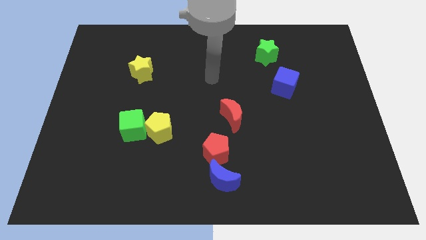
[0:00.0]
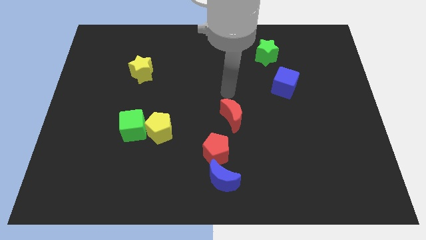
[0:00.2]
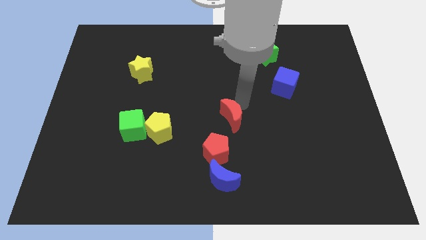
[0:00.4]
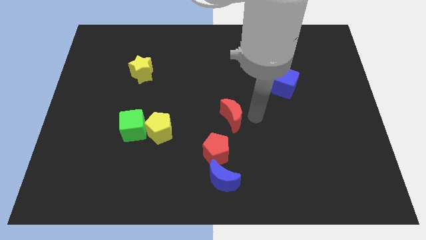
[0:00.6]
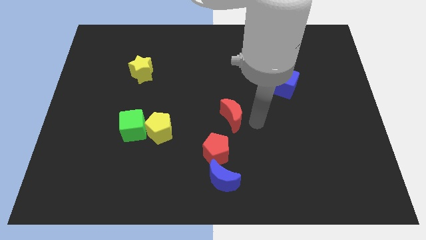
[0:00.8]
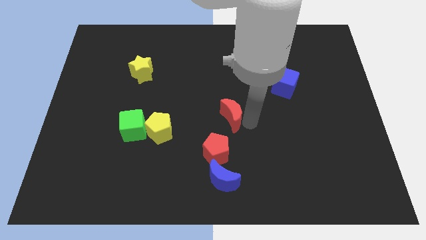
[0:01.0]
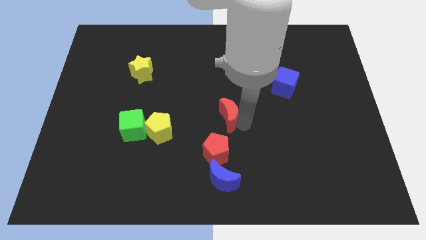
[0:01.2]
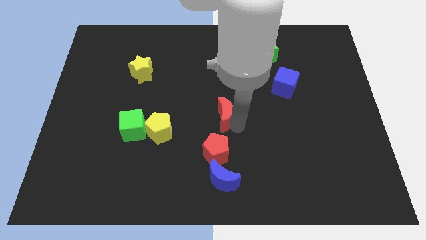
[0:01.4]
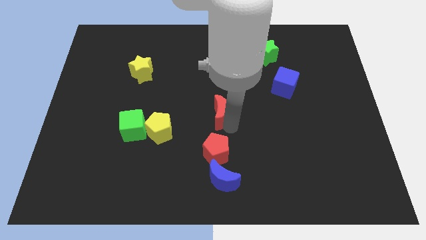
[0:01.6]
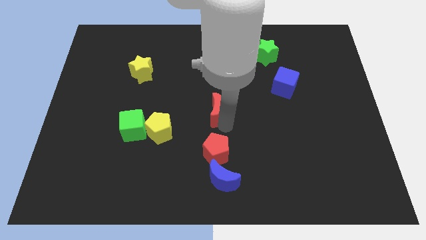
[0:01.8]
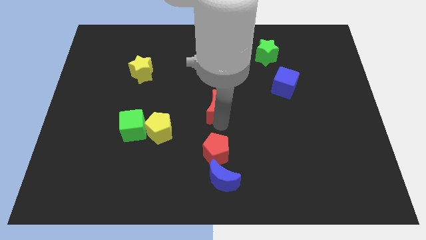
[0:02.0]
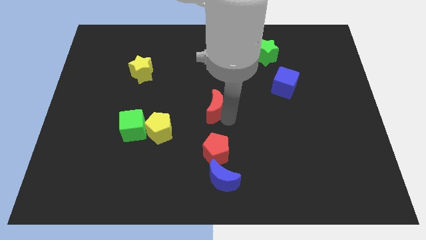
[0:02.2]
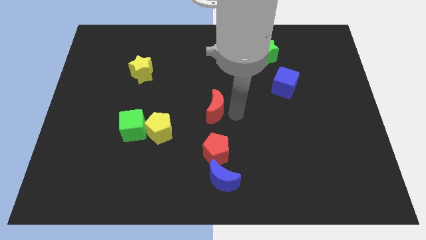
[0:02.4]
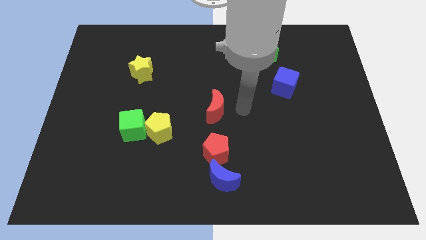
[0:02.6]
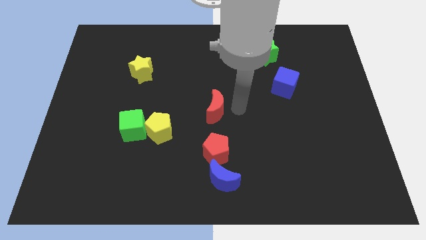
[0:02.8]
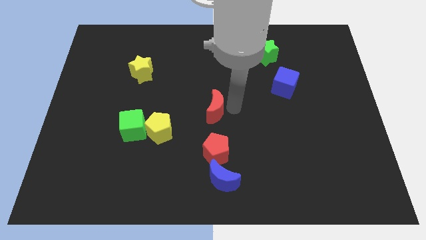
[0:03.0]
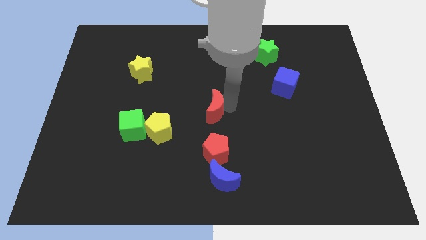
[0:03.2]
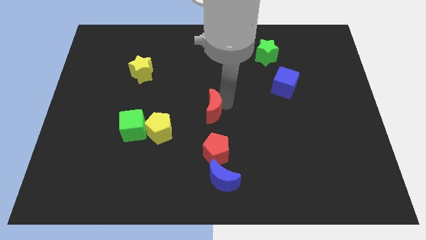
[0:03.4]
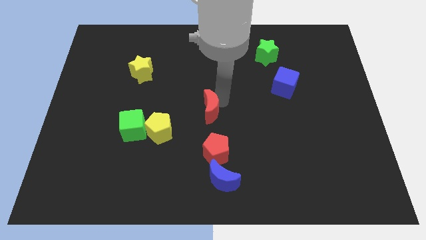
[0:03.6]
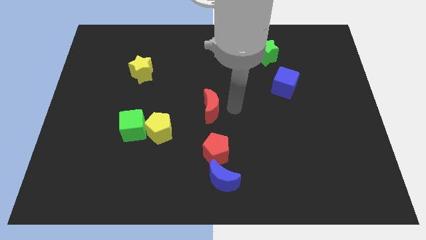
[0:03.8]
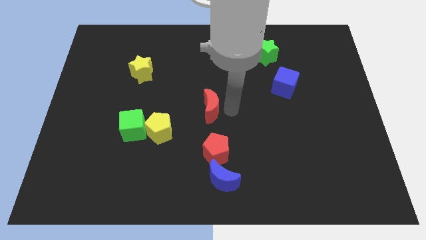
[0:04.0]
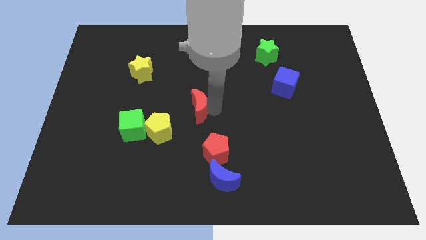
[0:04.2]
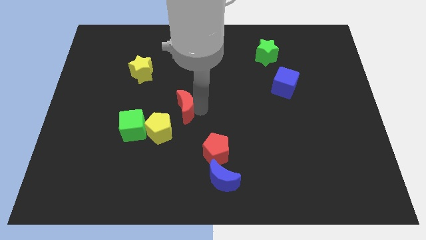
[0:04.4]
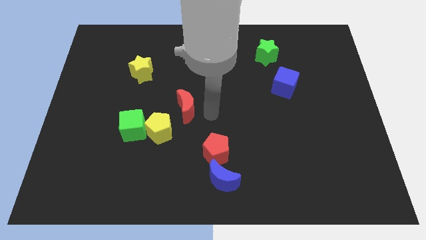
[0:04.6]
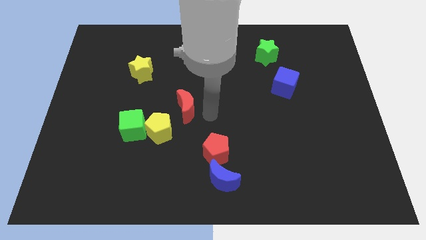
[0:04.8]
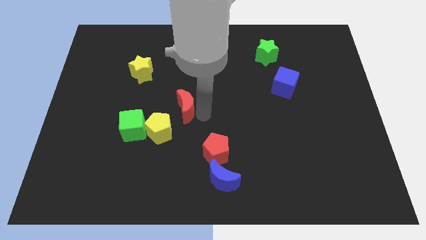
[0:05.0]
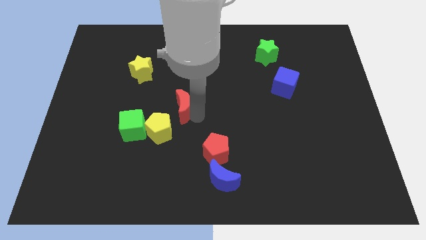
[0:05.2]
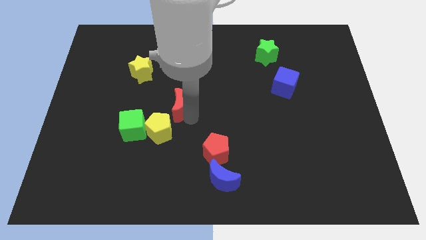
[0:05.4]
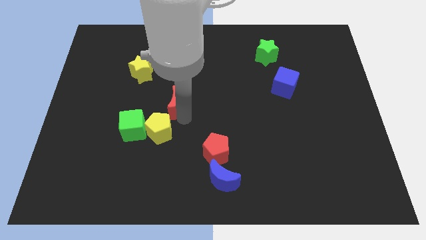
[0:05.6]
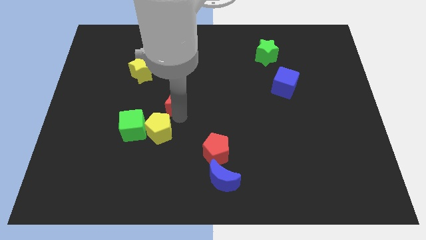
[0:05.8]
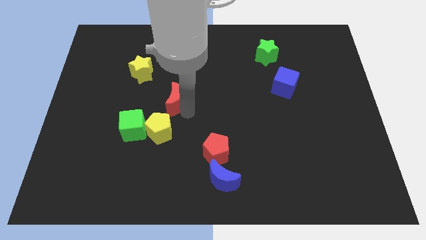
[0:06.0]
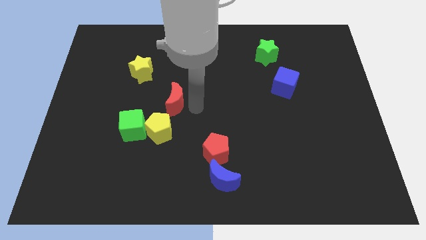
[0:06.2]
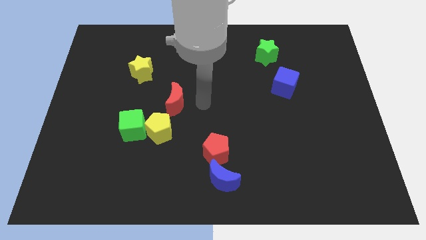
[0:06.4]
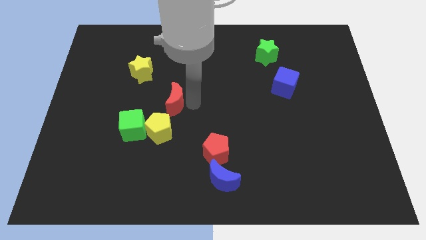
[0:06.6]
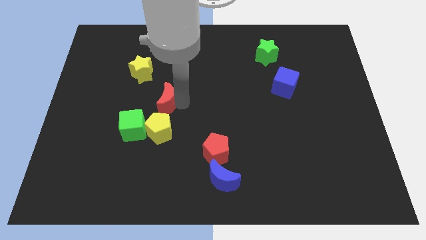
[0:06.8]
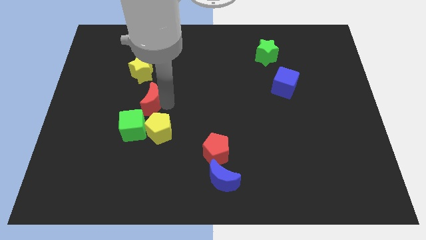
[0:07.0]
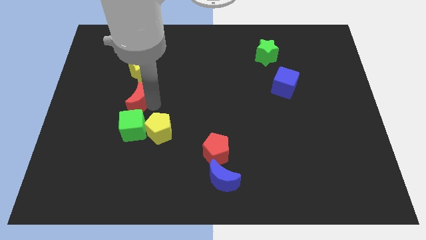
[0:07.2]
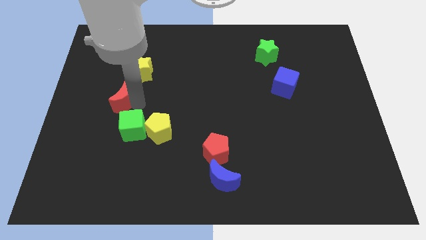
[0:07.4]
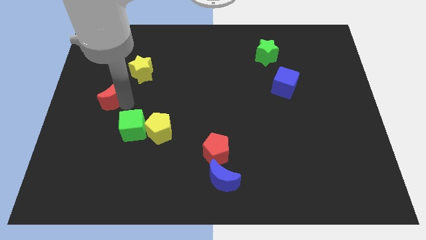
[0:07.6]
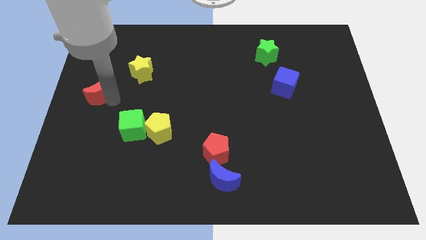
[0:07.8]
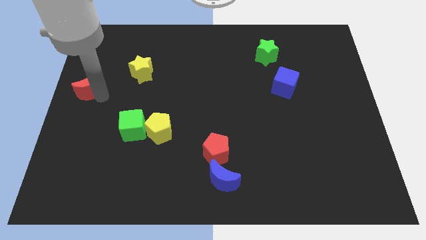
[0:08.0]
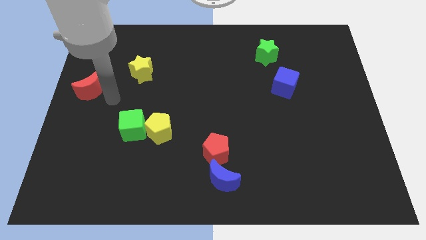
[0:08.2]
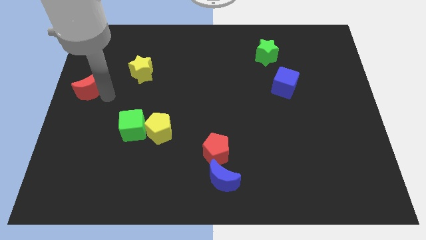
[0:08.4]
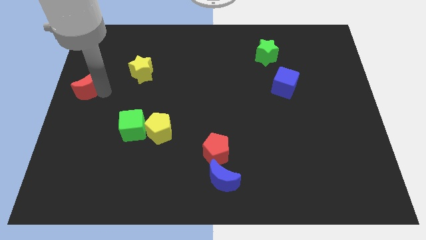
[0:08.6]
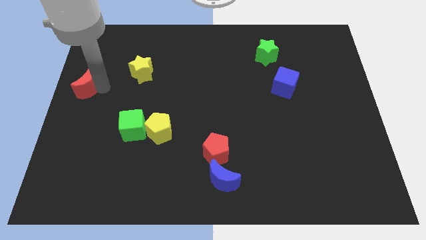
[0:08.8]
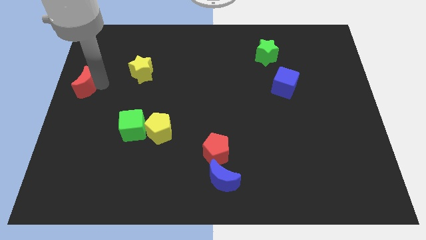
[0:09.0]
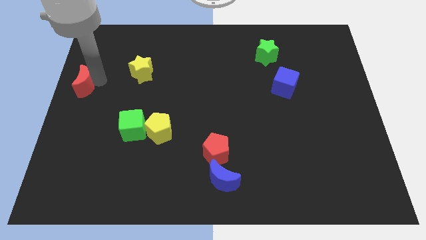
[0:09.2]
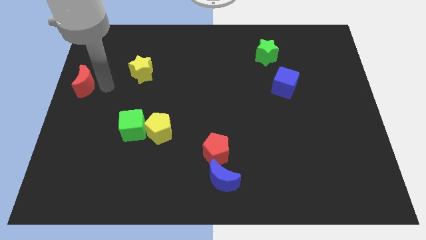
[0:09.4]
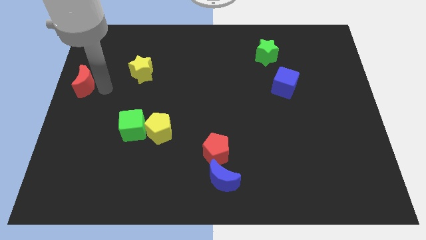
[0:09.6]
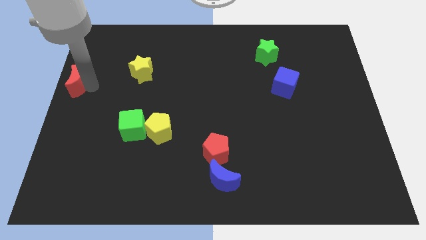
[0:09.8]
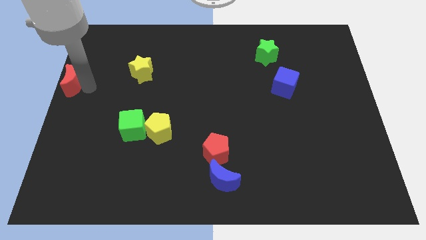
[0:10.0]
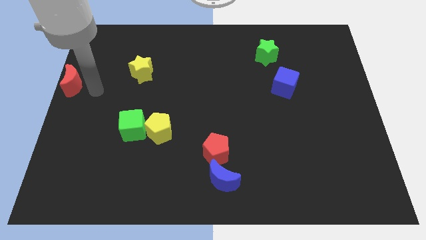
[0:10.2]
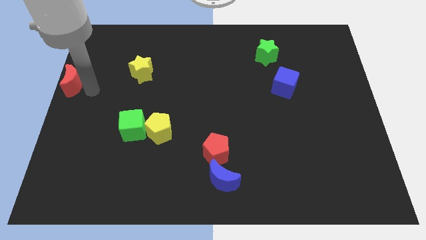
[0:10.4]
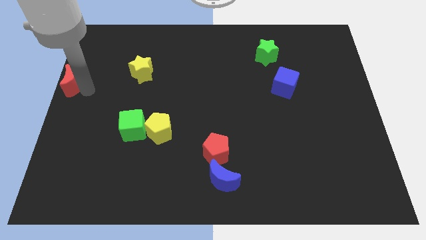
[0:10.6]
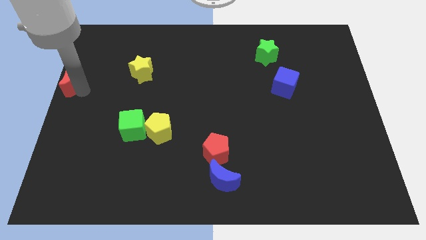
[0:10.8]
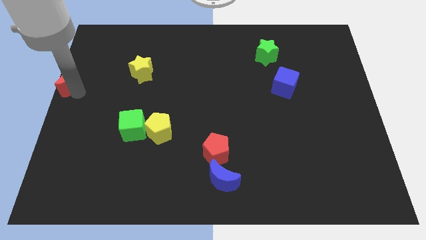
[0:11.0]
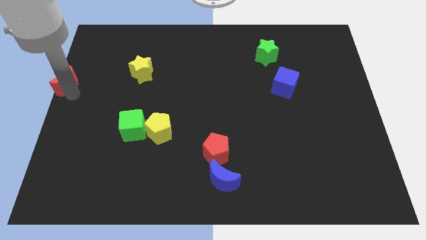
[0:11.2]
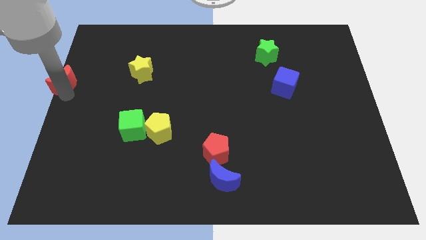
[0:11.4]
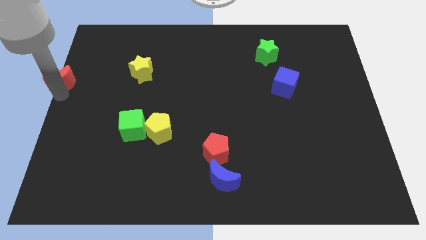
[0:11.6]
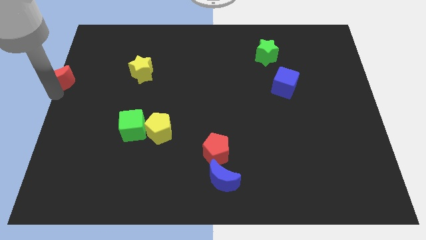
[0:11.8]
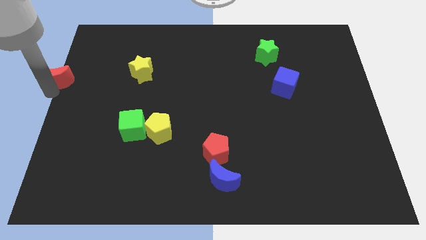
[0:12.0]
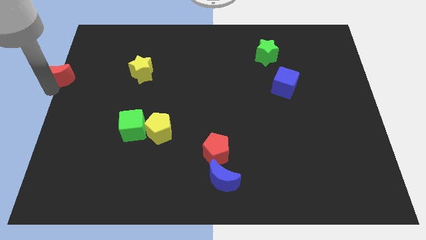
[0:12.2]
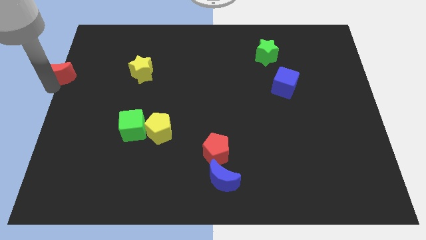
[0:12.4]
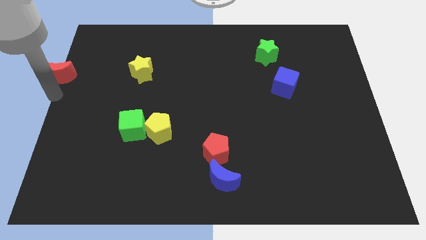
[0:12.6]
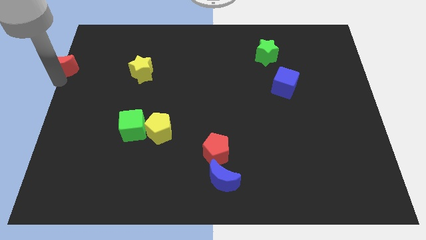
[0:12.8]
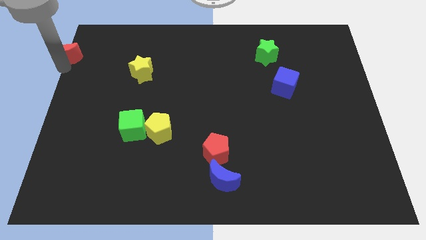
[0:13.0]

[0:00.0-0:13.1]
move the red moon to the top left
